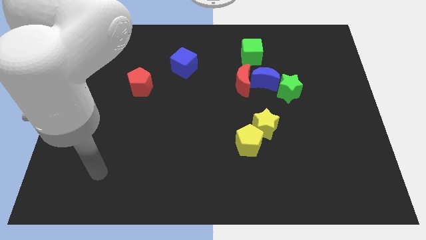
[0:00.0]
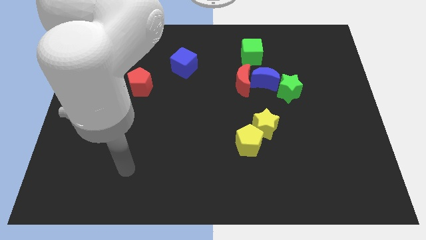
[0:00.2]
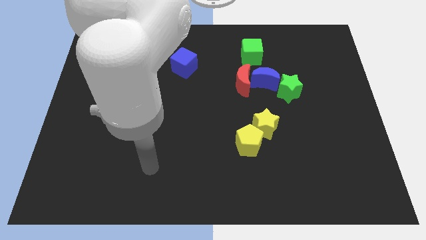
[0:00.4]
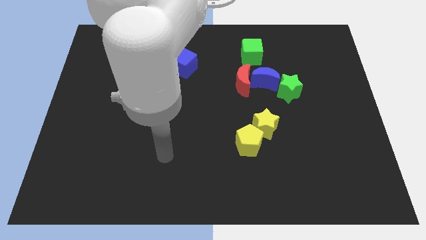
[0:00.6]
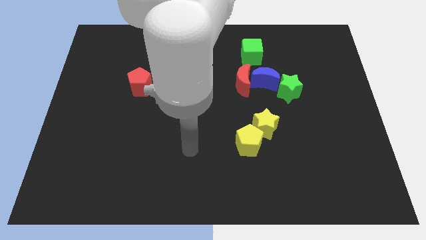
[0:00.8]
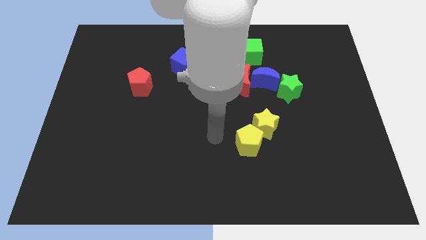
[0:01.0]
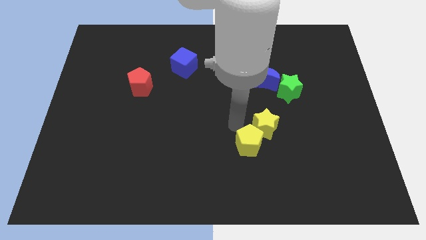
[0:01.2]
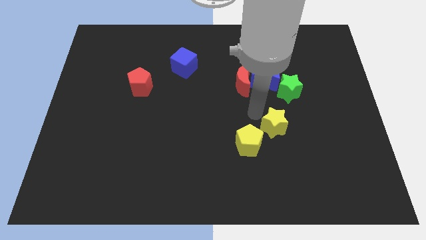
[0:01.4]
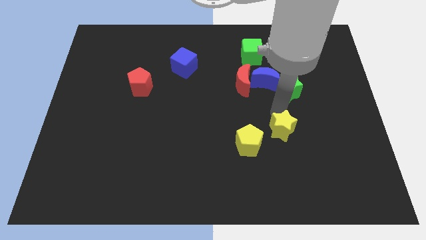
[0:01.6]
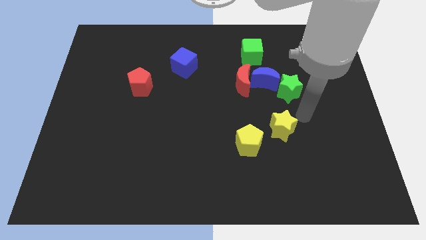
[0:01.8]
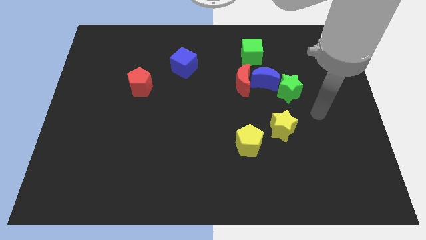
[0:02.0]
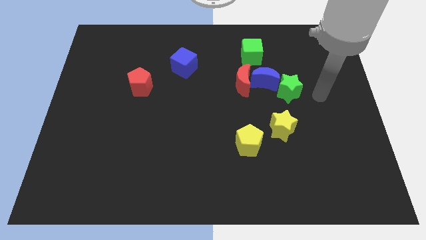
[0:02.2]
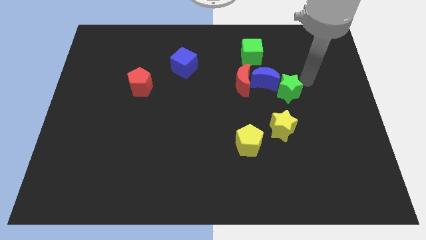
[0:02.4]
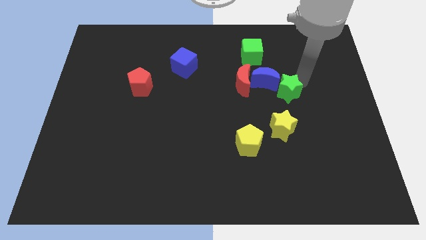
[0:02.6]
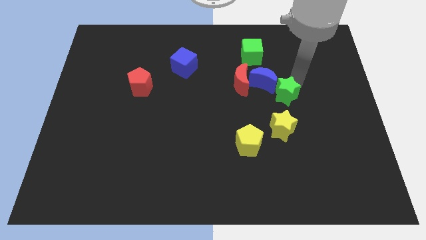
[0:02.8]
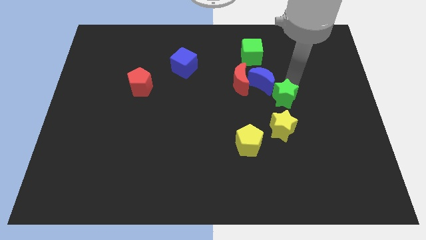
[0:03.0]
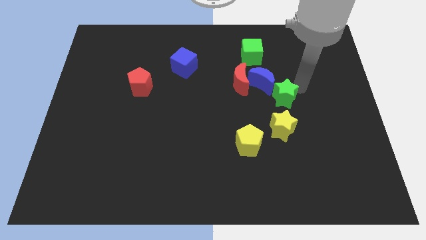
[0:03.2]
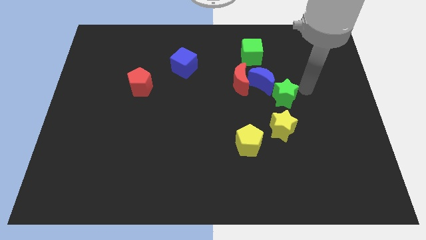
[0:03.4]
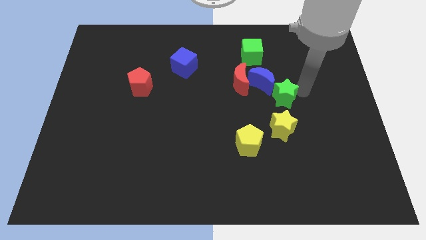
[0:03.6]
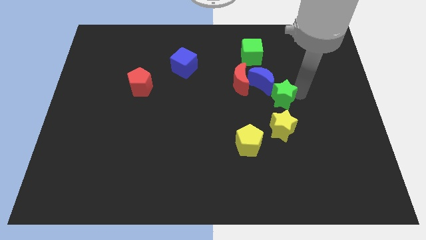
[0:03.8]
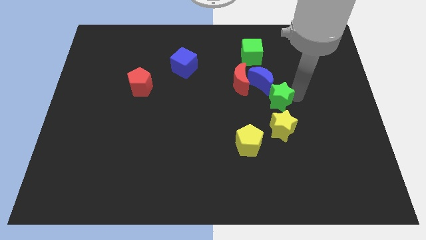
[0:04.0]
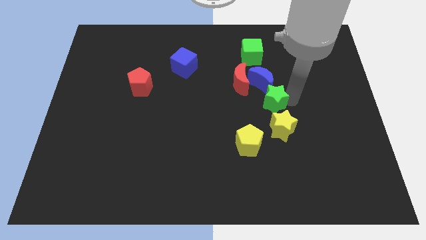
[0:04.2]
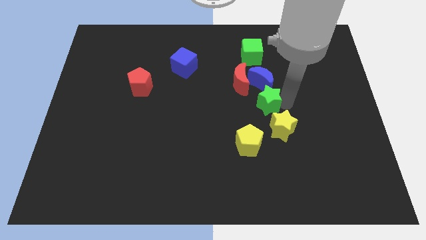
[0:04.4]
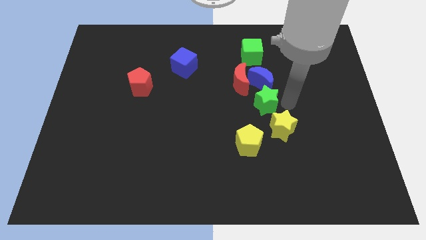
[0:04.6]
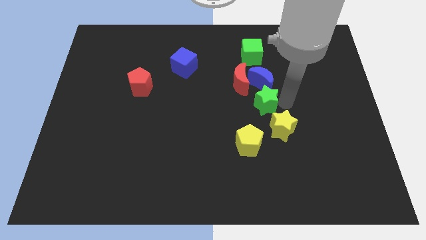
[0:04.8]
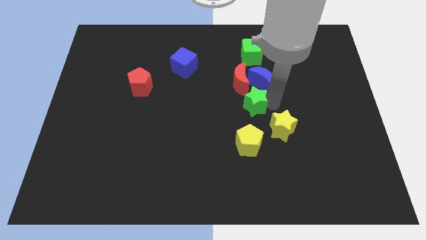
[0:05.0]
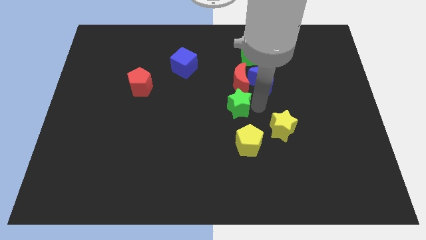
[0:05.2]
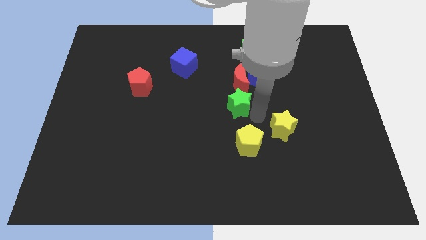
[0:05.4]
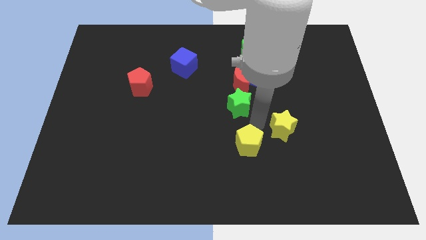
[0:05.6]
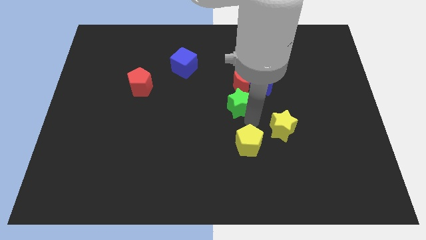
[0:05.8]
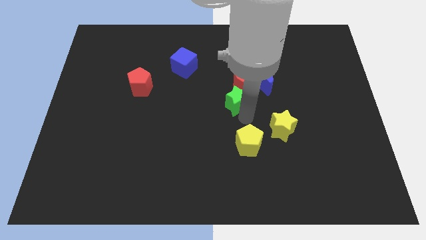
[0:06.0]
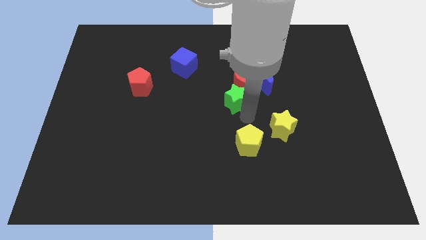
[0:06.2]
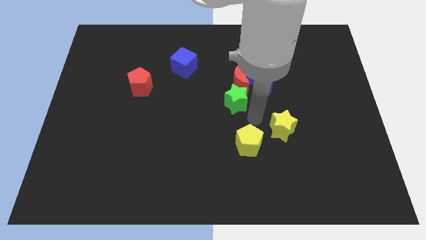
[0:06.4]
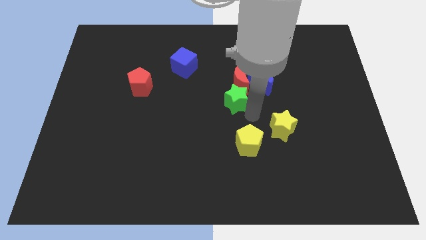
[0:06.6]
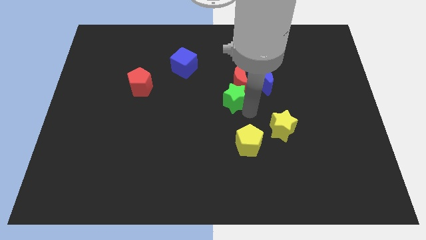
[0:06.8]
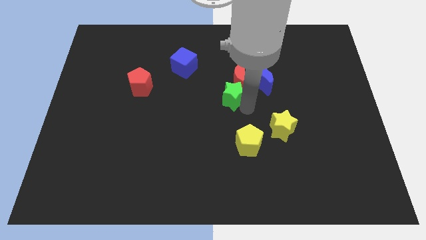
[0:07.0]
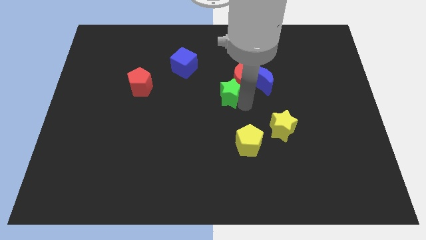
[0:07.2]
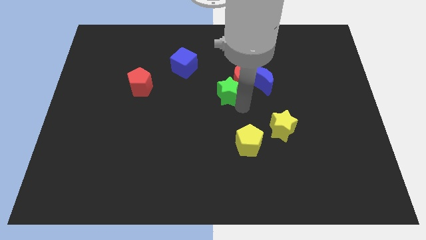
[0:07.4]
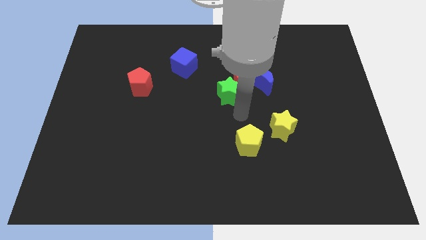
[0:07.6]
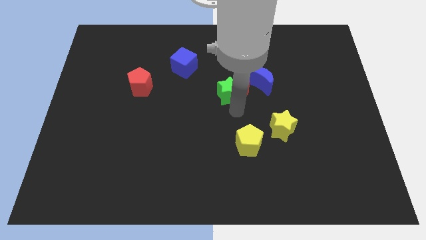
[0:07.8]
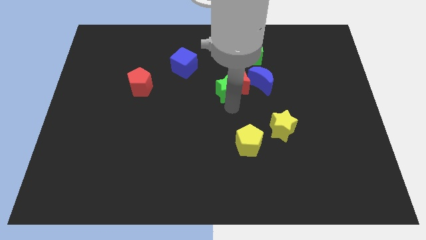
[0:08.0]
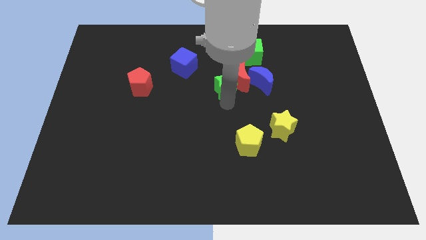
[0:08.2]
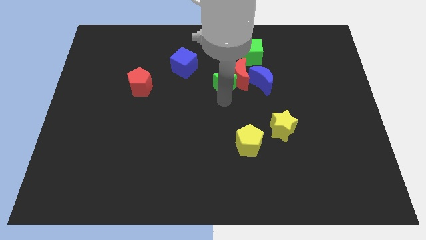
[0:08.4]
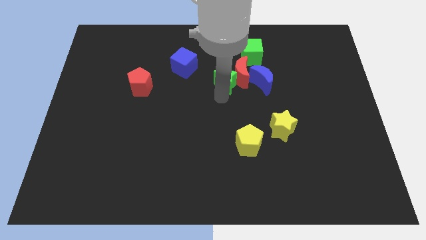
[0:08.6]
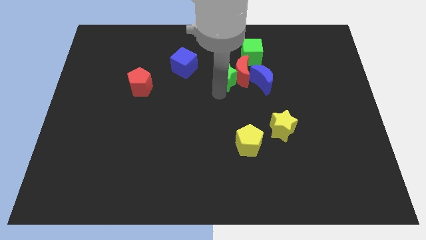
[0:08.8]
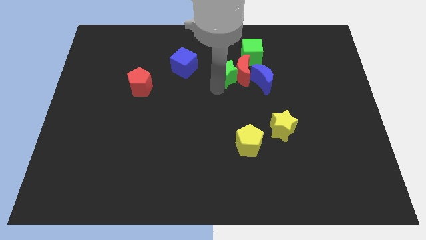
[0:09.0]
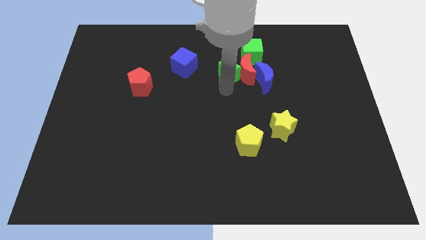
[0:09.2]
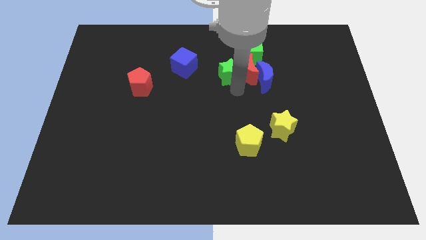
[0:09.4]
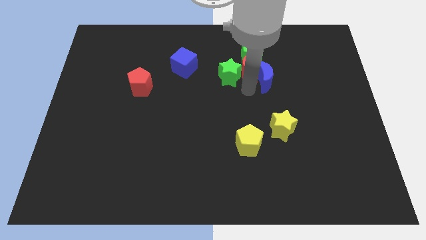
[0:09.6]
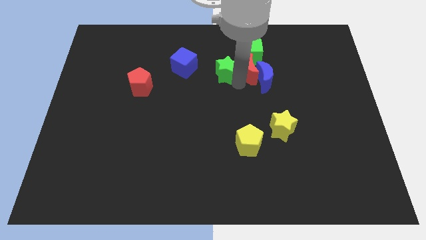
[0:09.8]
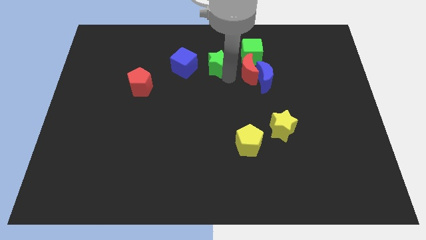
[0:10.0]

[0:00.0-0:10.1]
slide the green star to the left side of the green cube

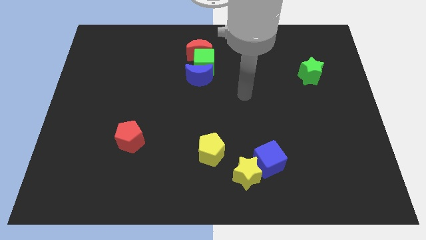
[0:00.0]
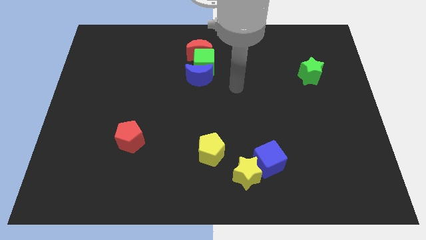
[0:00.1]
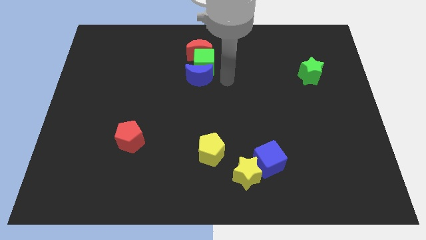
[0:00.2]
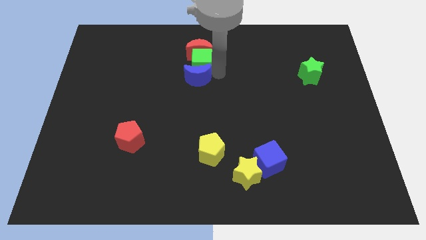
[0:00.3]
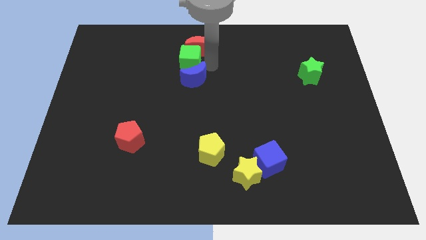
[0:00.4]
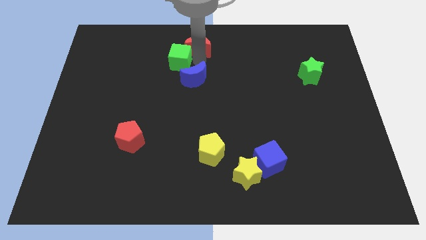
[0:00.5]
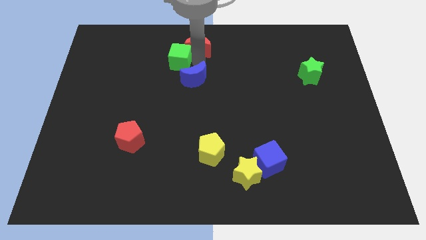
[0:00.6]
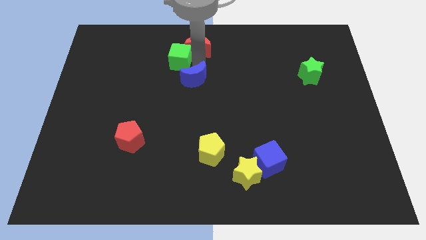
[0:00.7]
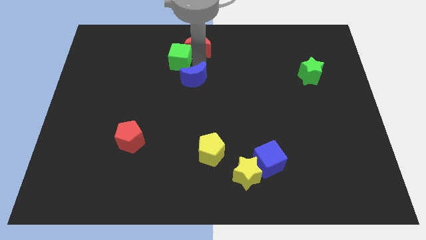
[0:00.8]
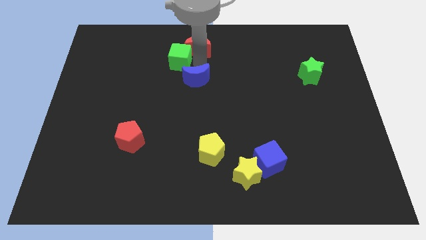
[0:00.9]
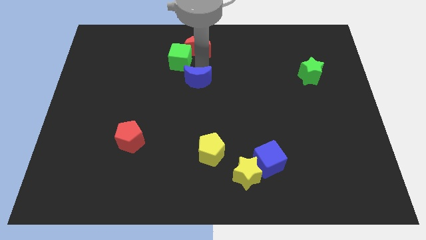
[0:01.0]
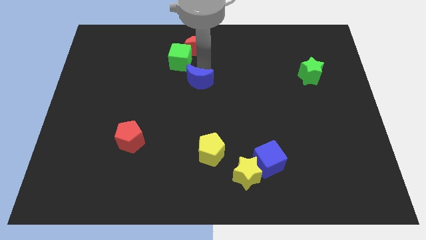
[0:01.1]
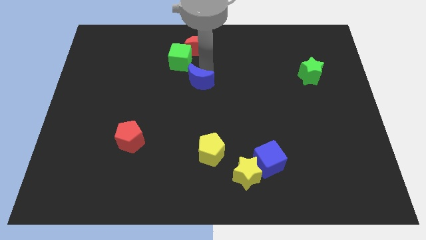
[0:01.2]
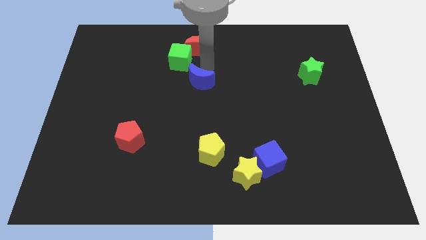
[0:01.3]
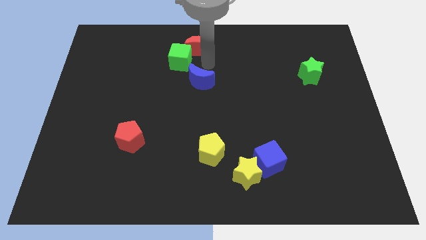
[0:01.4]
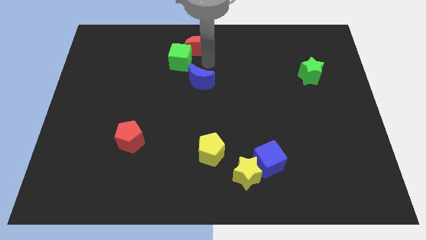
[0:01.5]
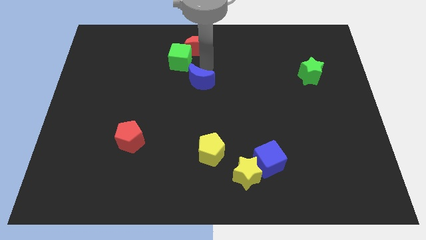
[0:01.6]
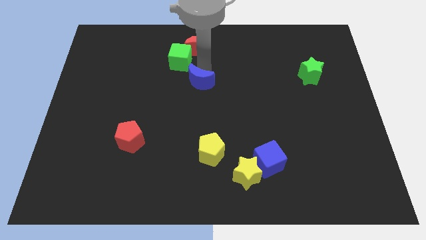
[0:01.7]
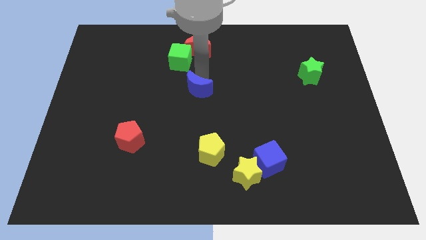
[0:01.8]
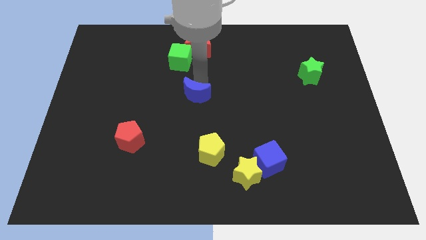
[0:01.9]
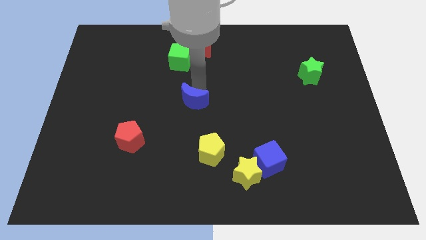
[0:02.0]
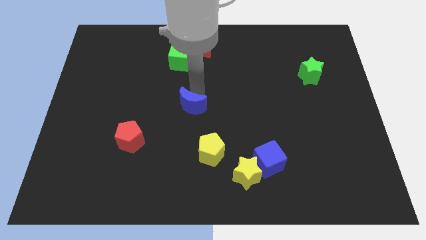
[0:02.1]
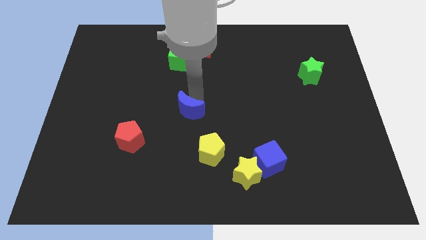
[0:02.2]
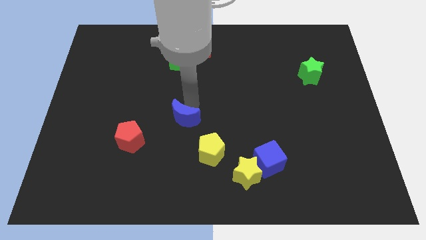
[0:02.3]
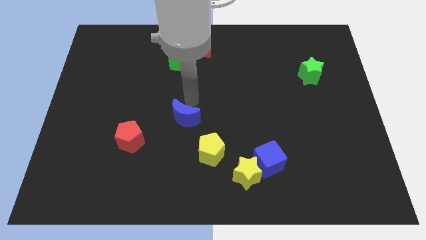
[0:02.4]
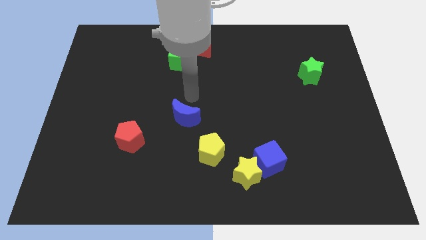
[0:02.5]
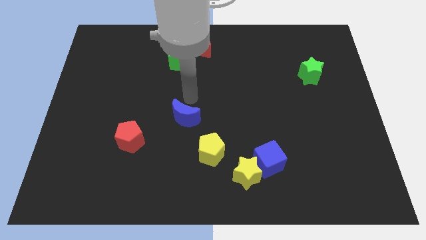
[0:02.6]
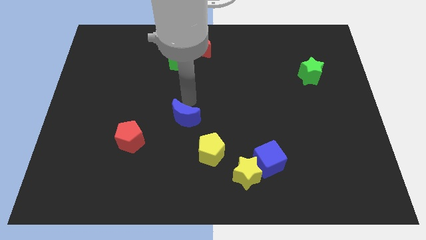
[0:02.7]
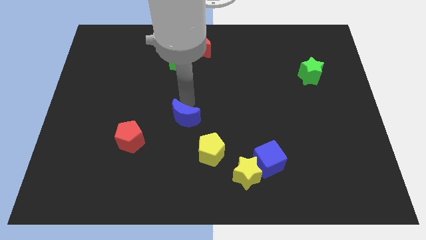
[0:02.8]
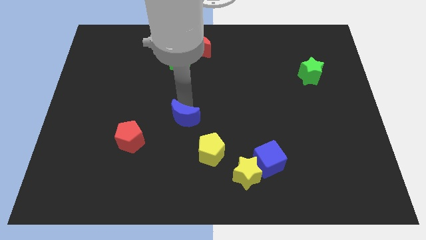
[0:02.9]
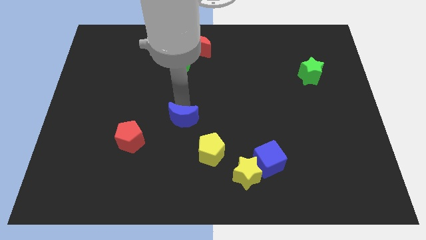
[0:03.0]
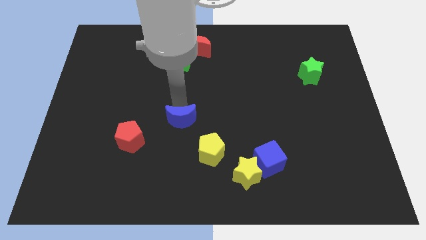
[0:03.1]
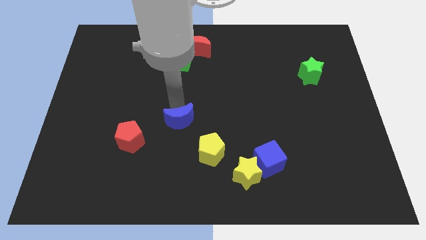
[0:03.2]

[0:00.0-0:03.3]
slide the blue moon just right of the red pentagon
